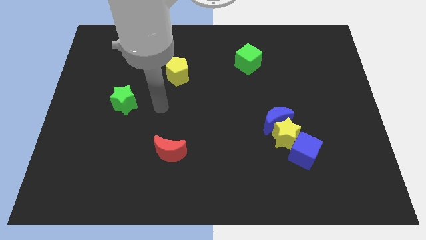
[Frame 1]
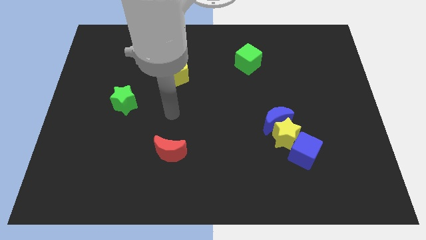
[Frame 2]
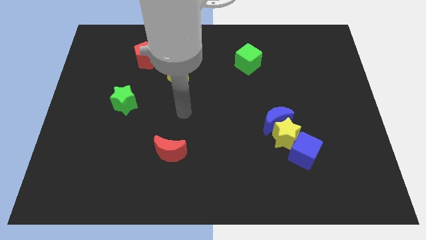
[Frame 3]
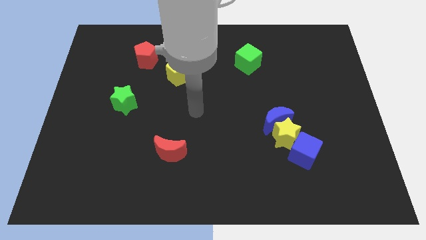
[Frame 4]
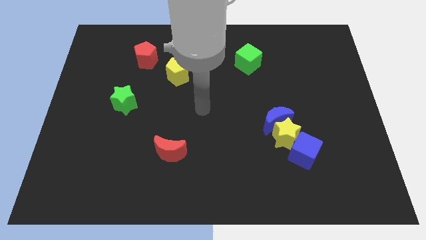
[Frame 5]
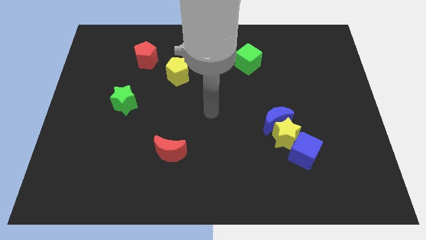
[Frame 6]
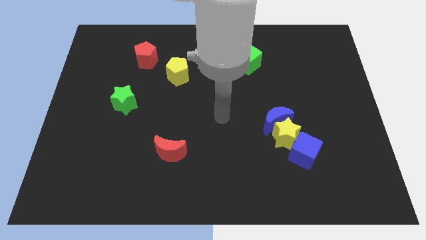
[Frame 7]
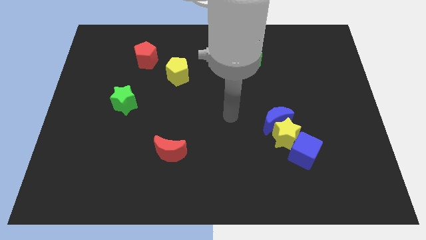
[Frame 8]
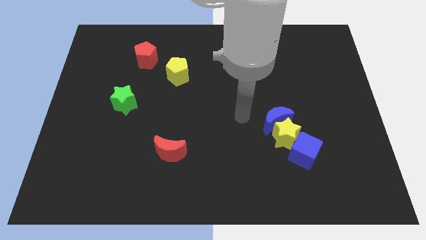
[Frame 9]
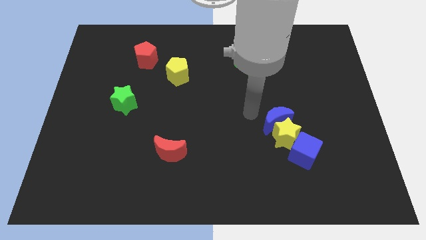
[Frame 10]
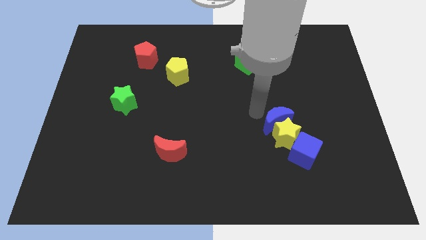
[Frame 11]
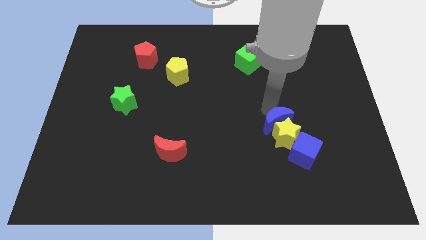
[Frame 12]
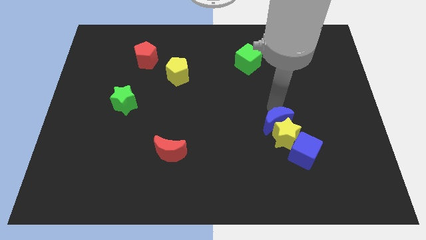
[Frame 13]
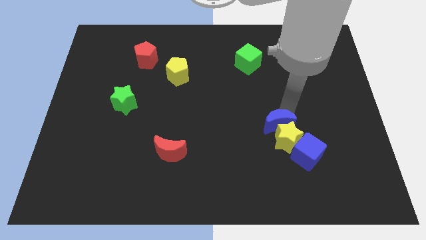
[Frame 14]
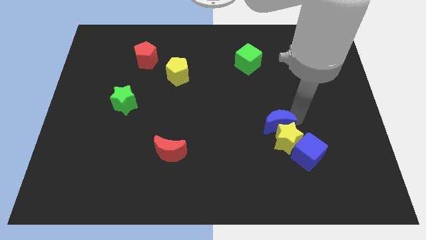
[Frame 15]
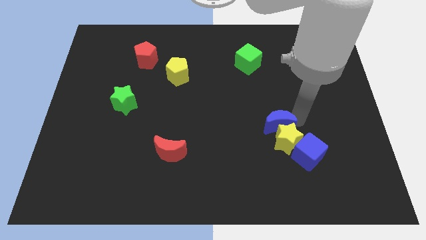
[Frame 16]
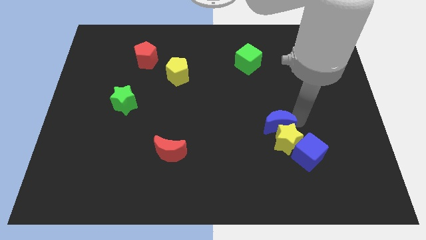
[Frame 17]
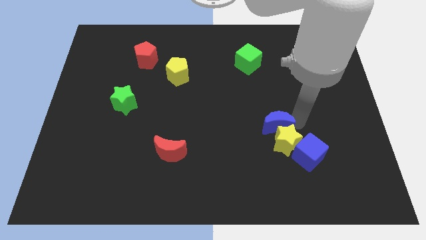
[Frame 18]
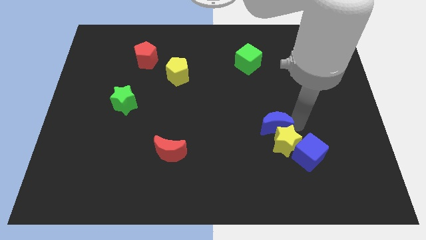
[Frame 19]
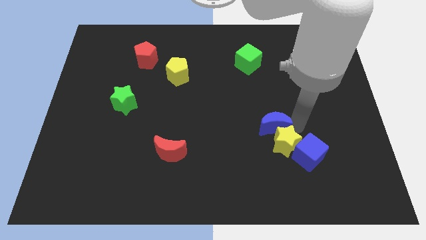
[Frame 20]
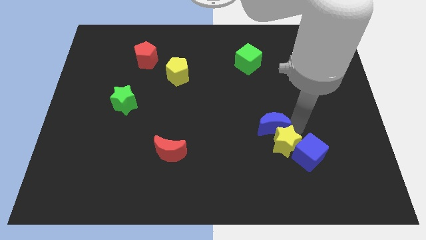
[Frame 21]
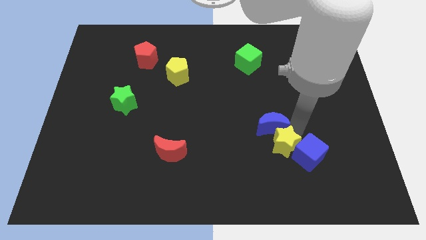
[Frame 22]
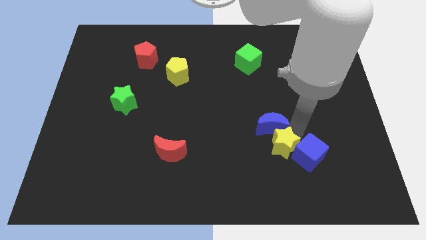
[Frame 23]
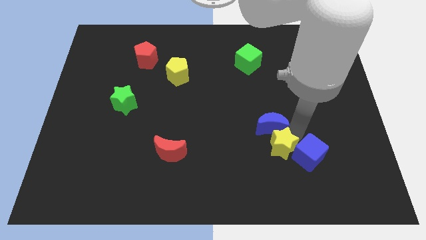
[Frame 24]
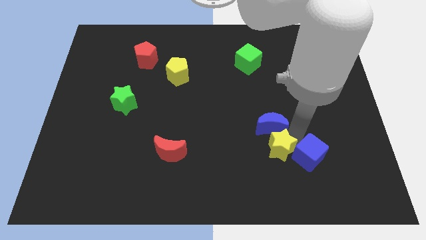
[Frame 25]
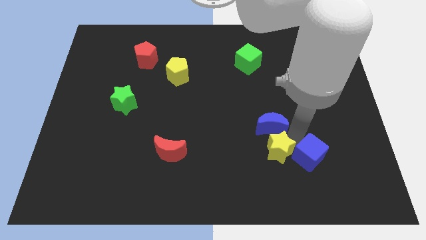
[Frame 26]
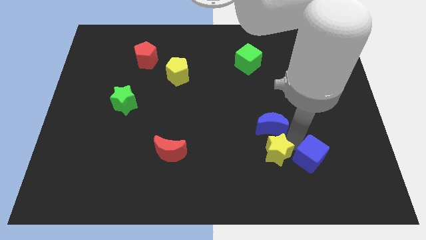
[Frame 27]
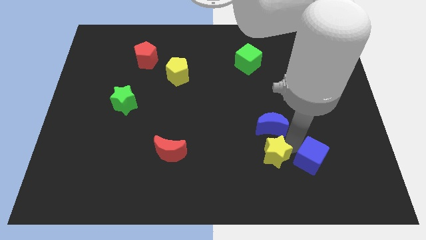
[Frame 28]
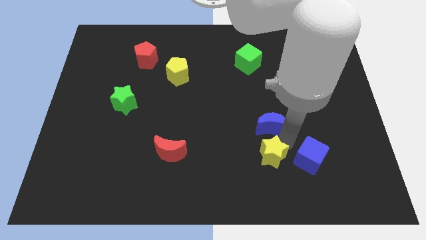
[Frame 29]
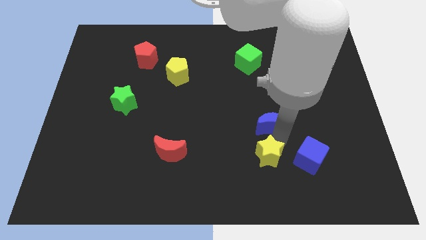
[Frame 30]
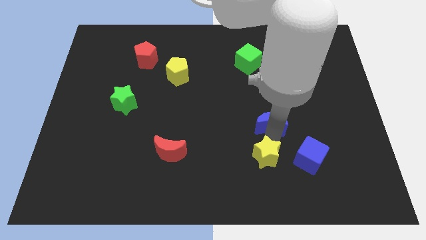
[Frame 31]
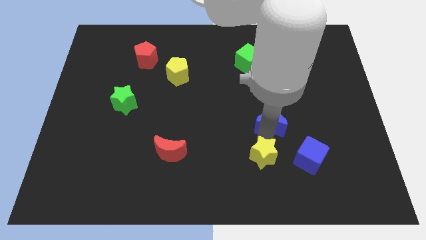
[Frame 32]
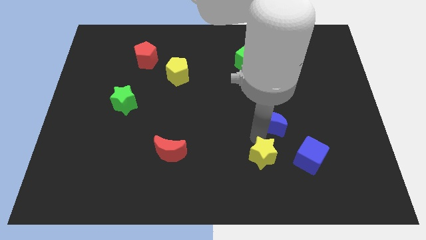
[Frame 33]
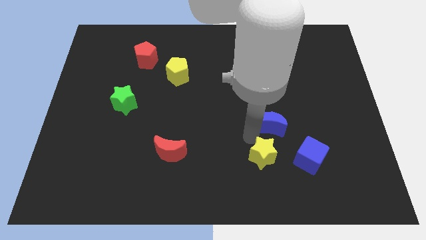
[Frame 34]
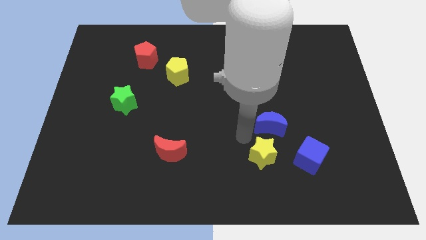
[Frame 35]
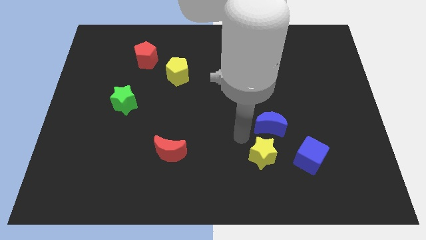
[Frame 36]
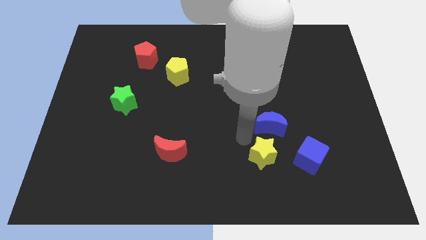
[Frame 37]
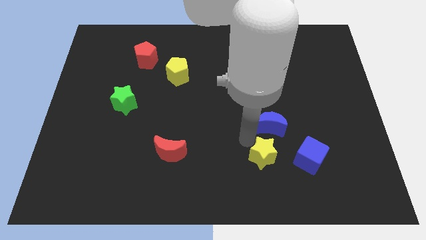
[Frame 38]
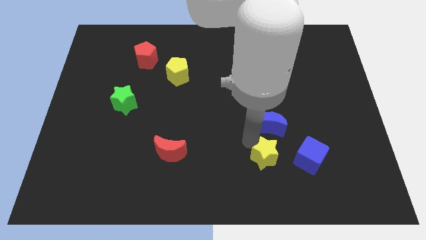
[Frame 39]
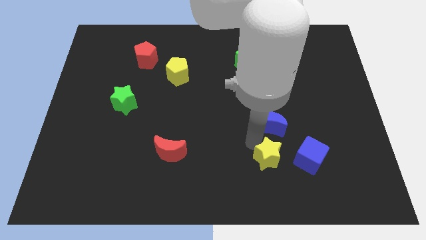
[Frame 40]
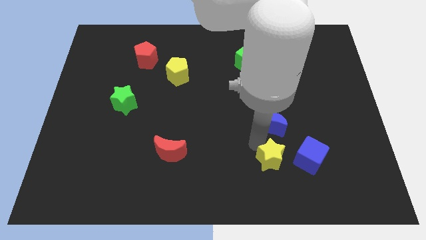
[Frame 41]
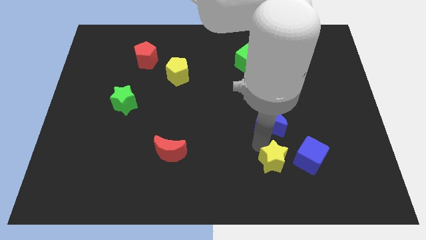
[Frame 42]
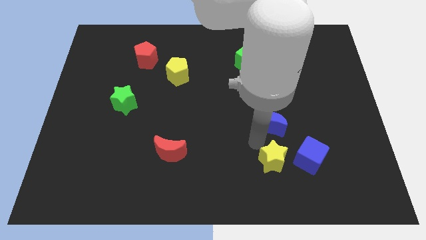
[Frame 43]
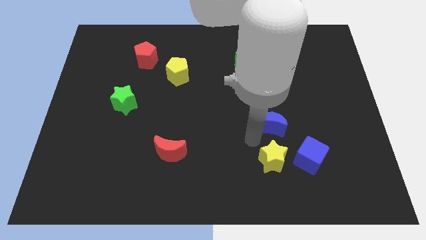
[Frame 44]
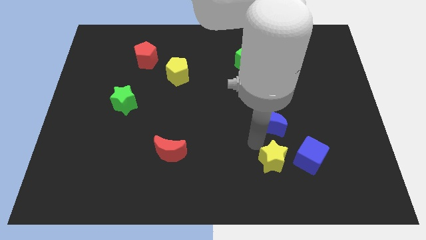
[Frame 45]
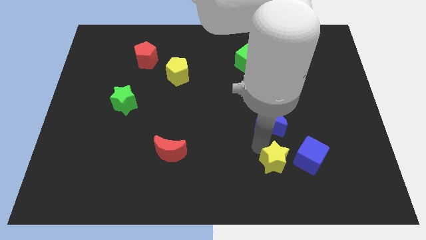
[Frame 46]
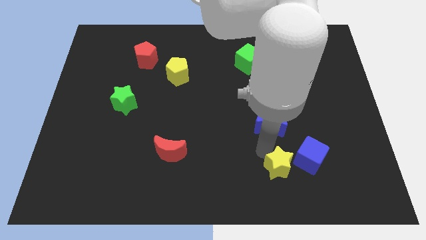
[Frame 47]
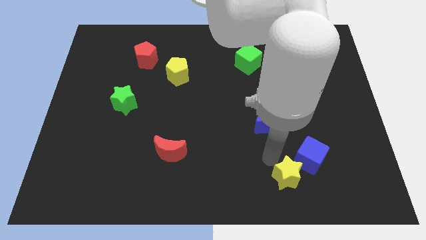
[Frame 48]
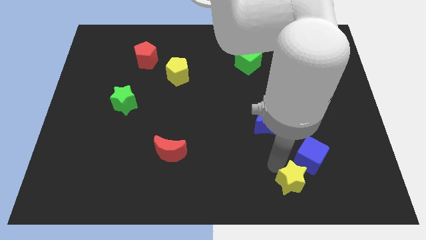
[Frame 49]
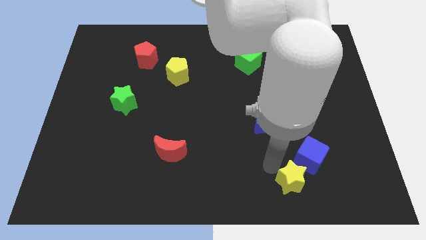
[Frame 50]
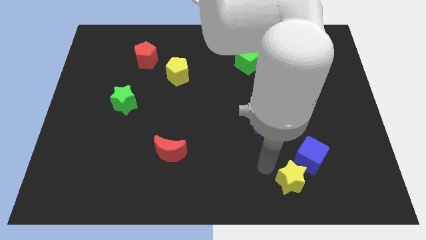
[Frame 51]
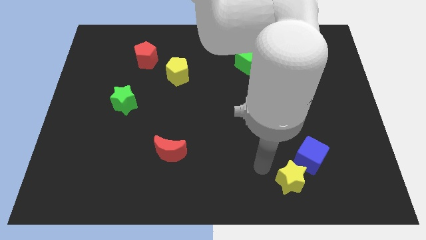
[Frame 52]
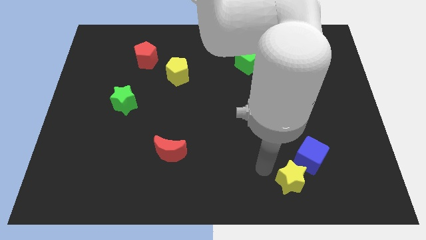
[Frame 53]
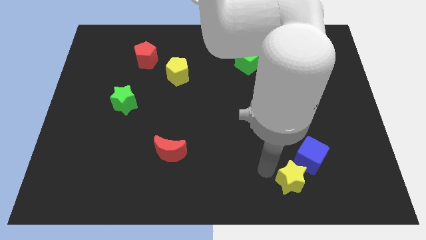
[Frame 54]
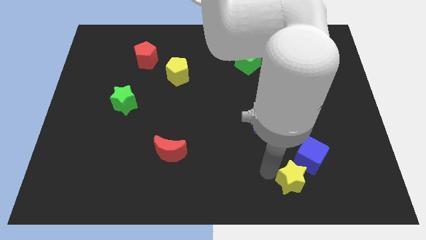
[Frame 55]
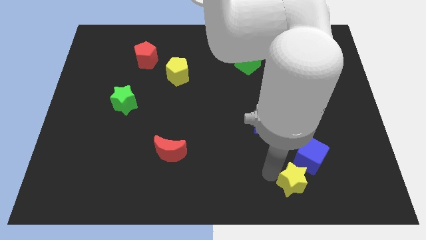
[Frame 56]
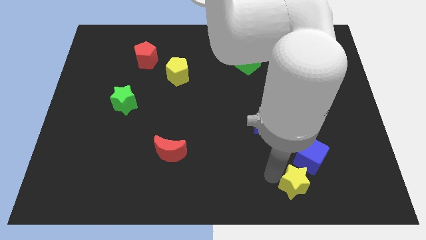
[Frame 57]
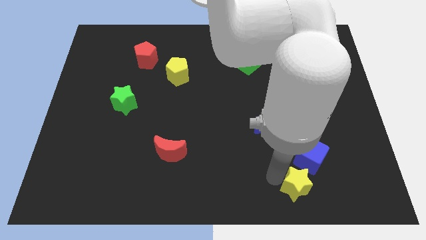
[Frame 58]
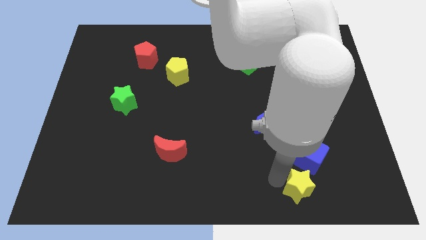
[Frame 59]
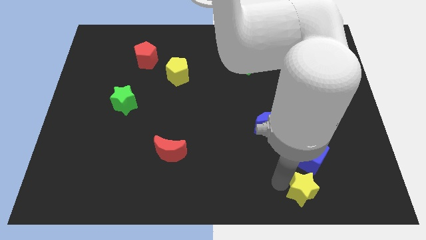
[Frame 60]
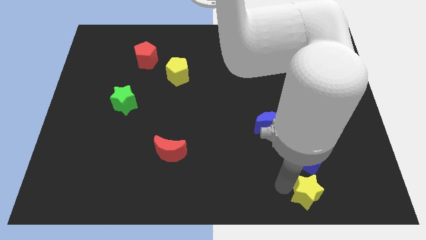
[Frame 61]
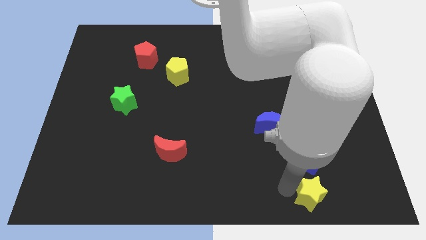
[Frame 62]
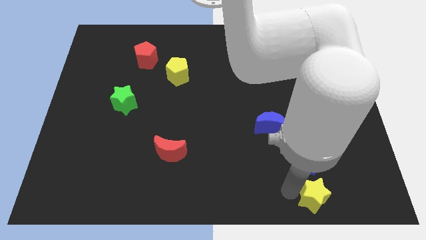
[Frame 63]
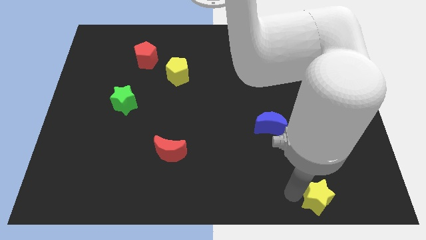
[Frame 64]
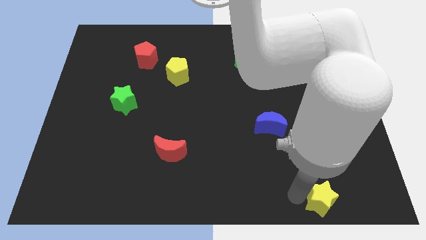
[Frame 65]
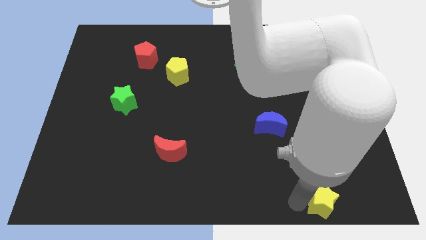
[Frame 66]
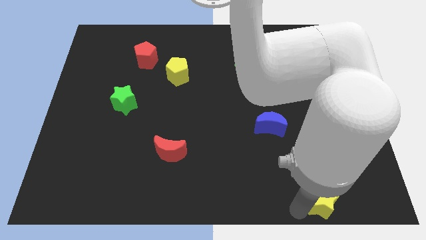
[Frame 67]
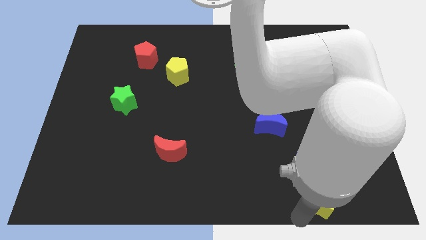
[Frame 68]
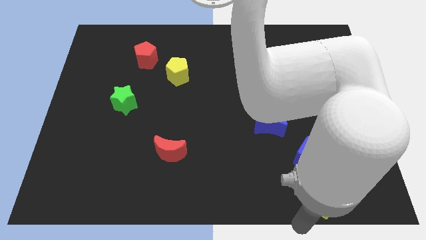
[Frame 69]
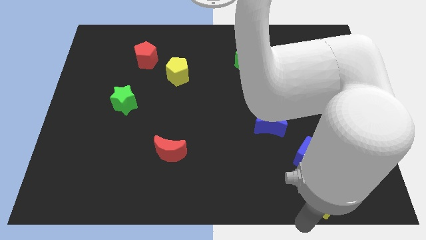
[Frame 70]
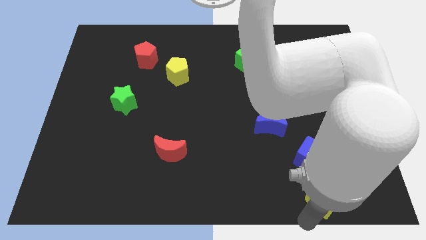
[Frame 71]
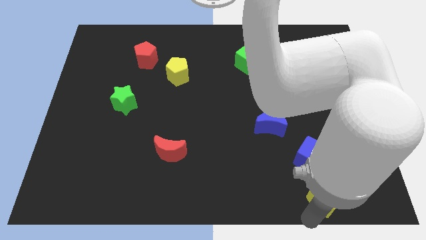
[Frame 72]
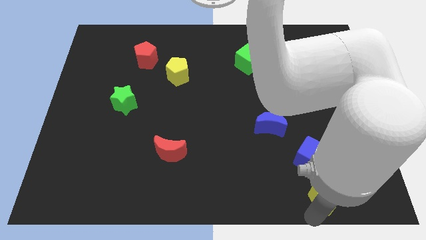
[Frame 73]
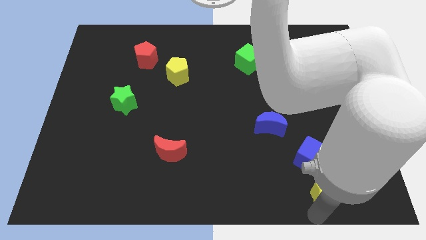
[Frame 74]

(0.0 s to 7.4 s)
slide the yellow star diagonally down and to the right of the blue cube
